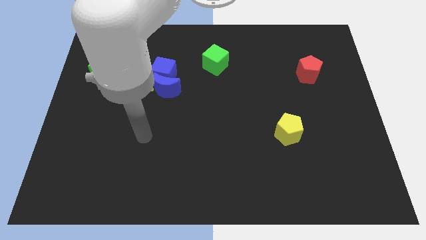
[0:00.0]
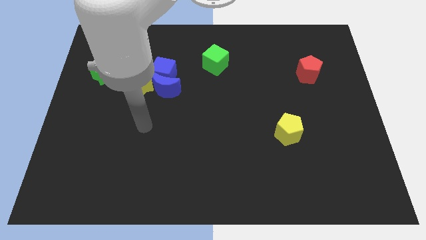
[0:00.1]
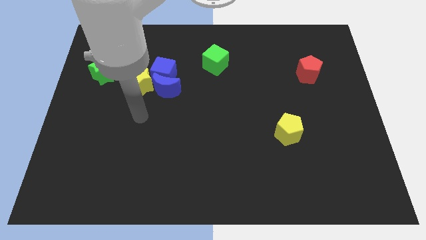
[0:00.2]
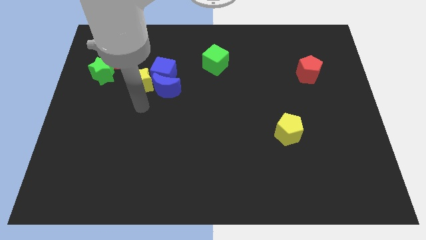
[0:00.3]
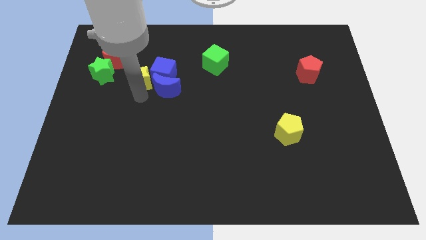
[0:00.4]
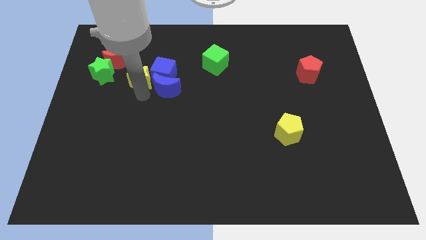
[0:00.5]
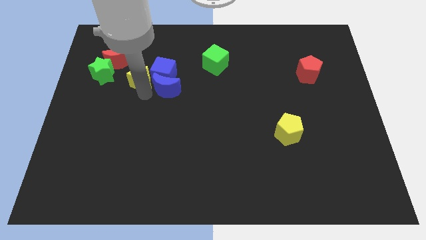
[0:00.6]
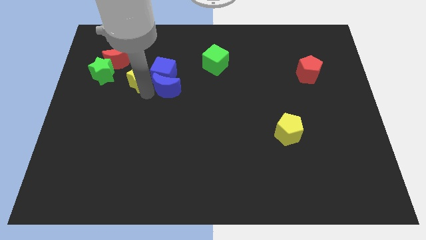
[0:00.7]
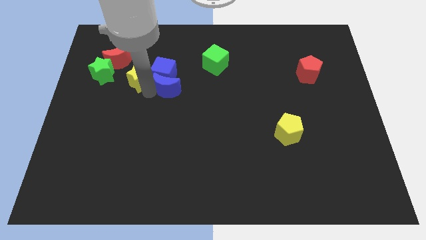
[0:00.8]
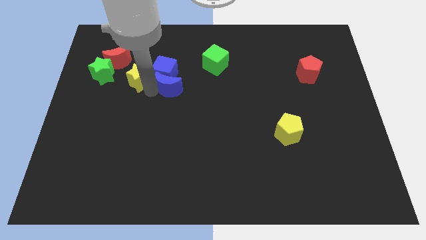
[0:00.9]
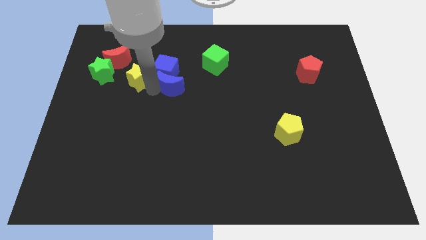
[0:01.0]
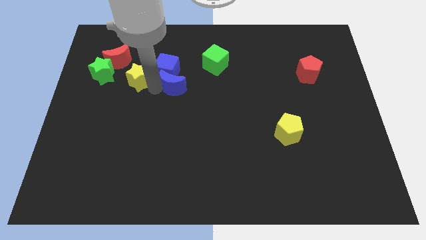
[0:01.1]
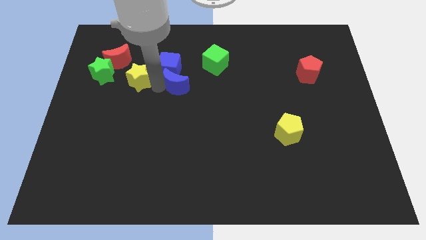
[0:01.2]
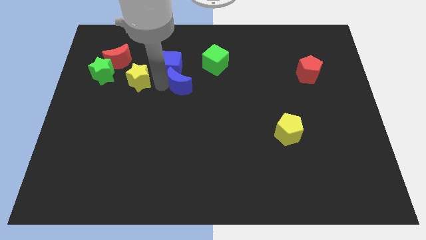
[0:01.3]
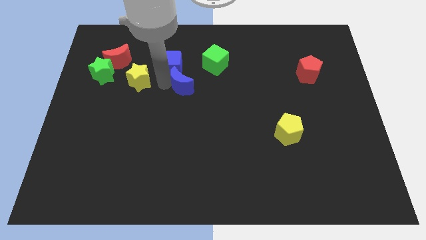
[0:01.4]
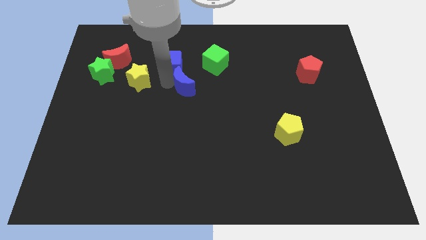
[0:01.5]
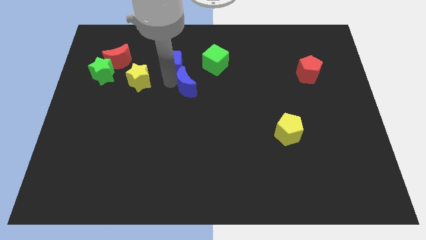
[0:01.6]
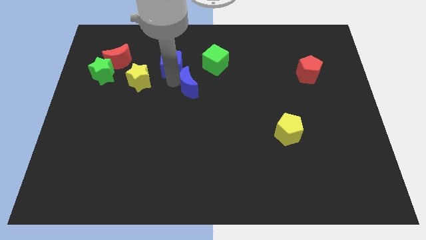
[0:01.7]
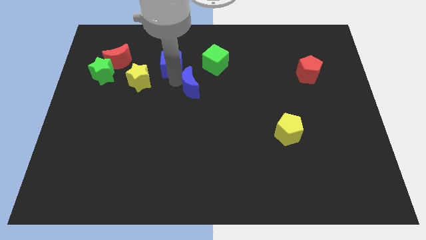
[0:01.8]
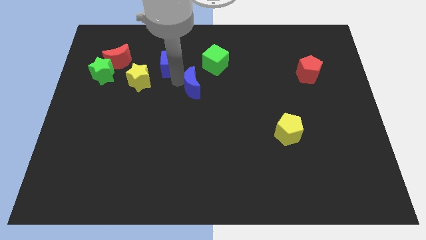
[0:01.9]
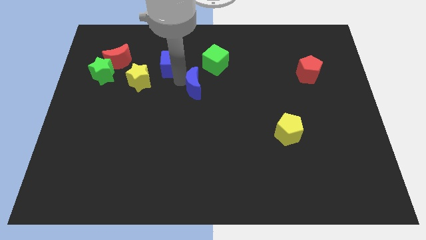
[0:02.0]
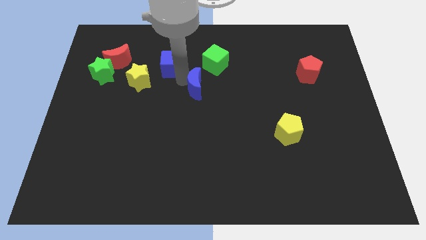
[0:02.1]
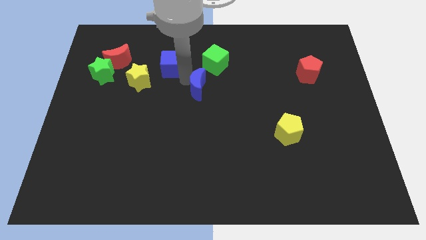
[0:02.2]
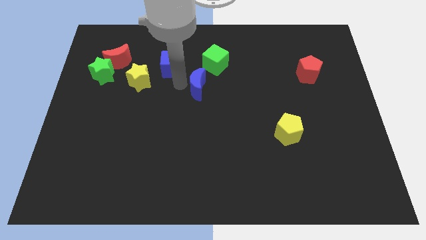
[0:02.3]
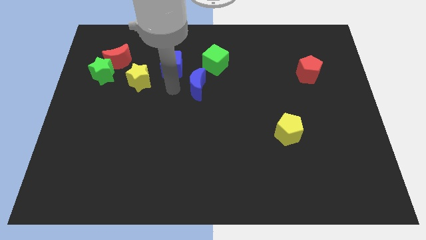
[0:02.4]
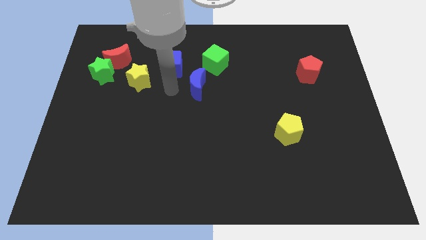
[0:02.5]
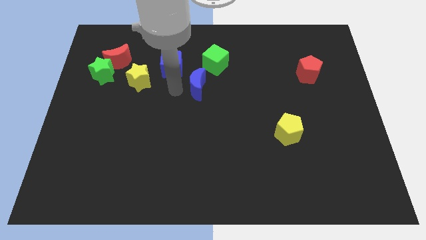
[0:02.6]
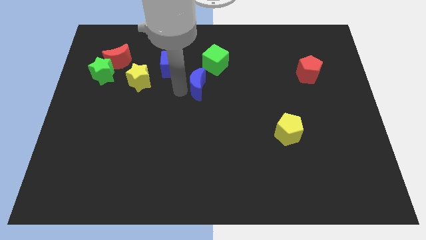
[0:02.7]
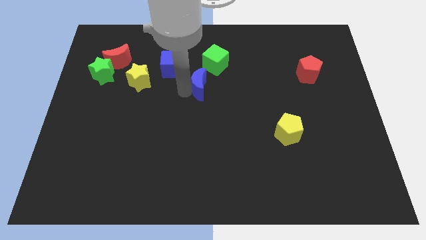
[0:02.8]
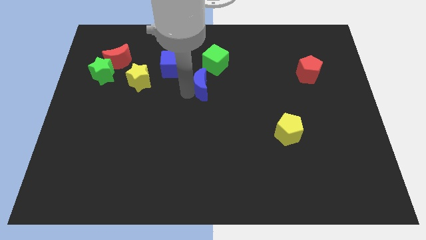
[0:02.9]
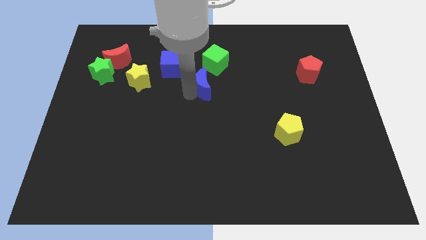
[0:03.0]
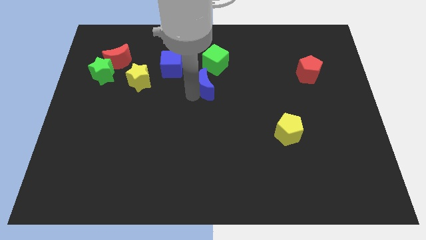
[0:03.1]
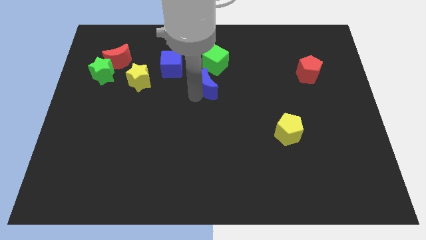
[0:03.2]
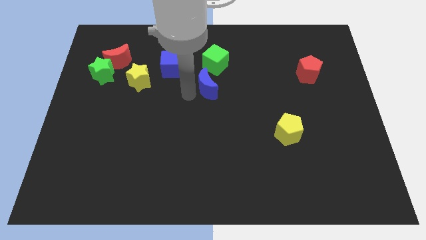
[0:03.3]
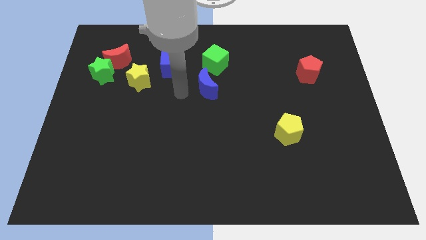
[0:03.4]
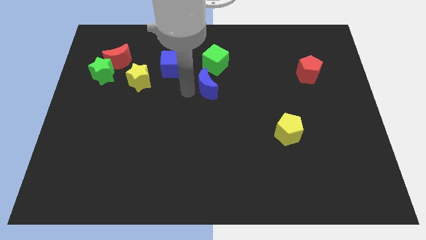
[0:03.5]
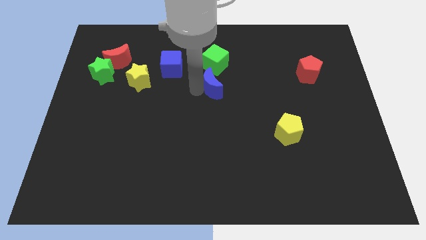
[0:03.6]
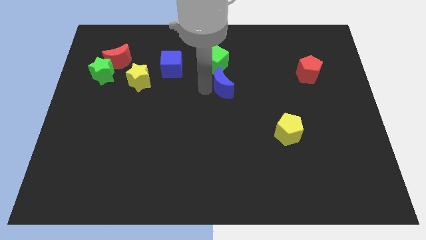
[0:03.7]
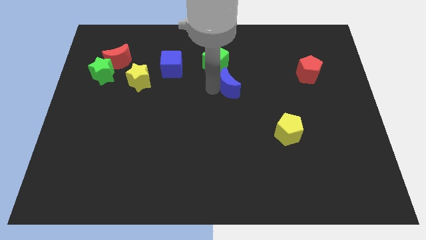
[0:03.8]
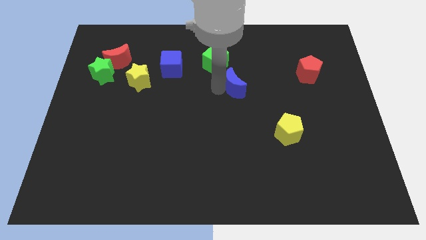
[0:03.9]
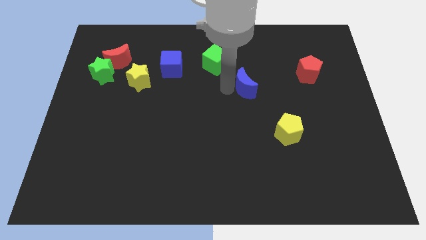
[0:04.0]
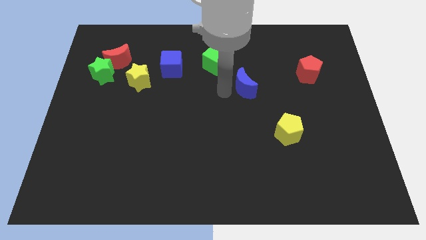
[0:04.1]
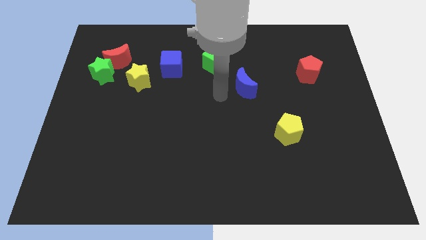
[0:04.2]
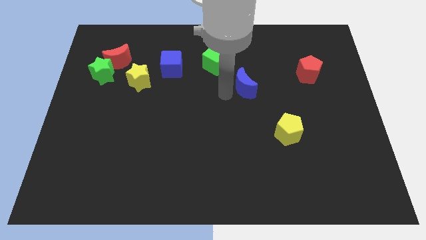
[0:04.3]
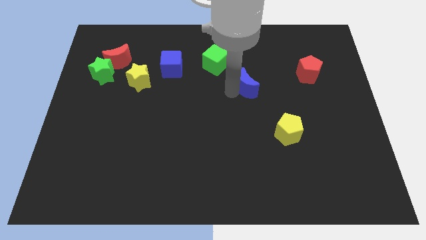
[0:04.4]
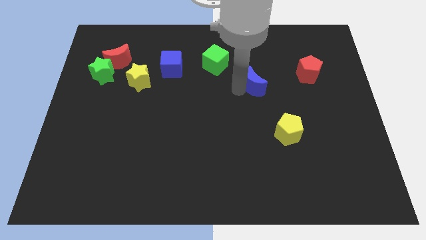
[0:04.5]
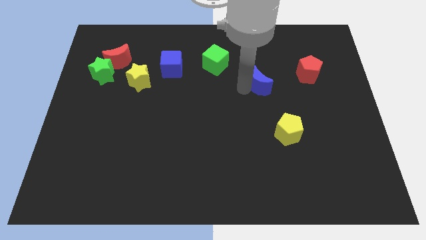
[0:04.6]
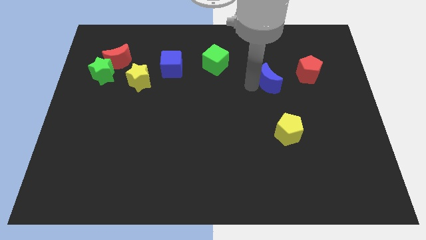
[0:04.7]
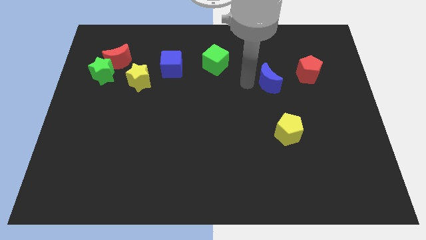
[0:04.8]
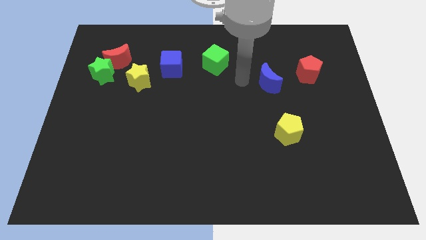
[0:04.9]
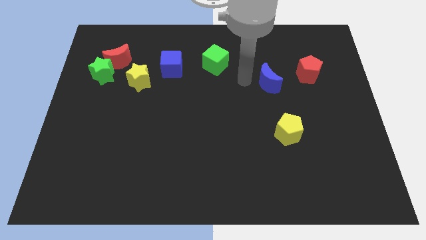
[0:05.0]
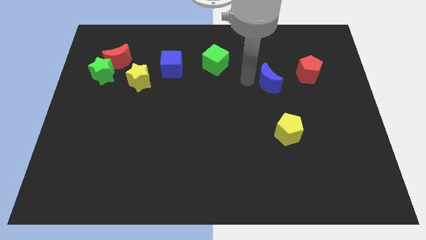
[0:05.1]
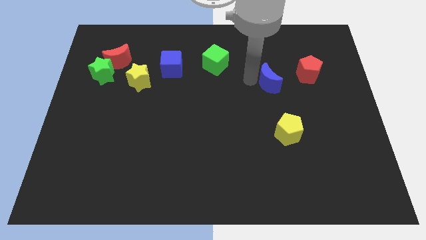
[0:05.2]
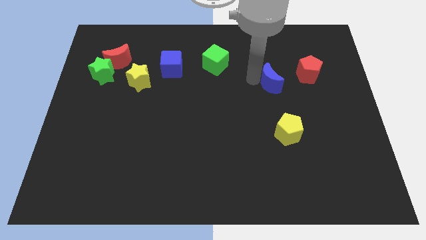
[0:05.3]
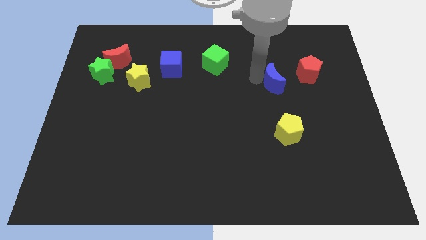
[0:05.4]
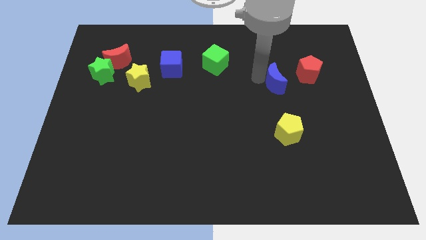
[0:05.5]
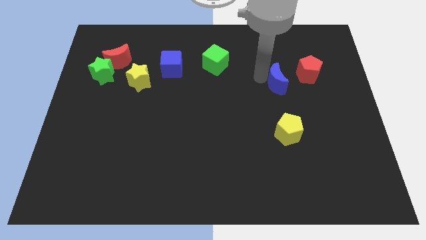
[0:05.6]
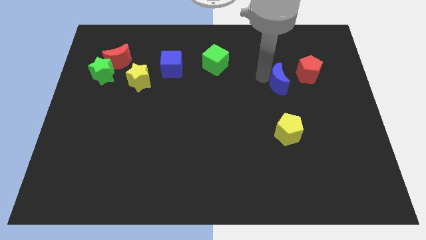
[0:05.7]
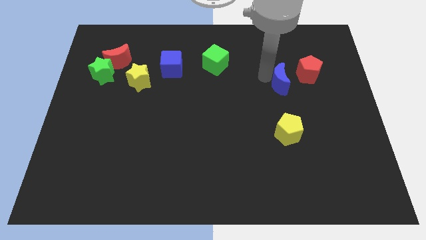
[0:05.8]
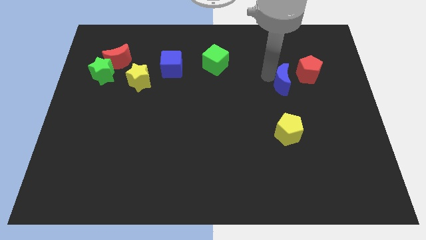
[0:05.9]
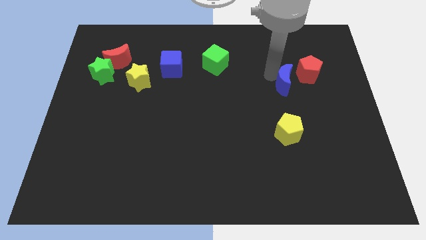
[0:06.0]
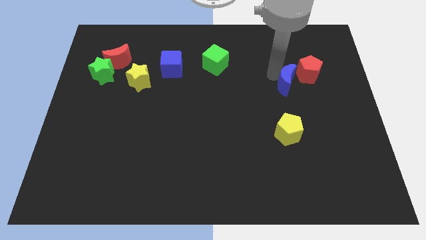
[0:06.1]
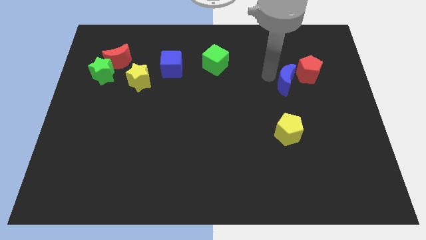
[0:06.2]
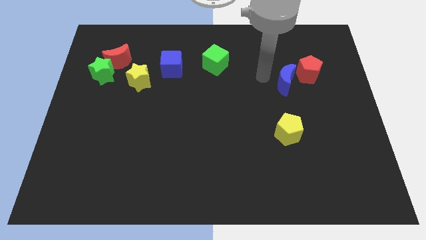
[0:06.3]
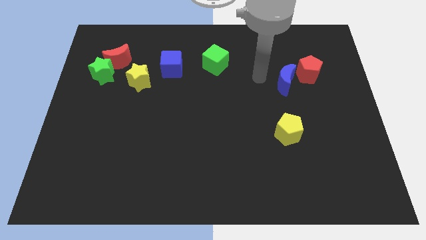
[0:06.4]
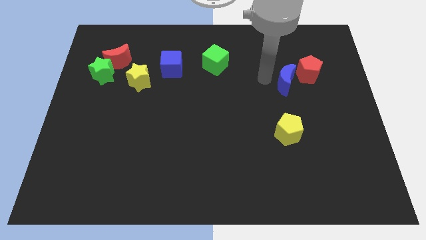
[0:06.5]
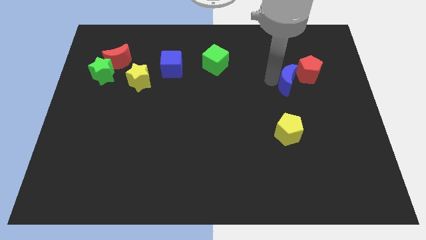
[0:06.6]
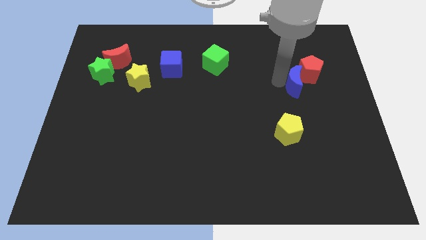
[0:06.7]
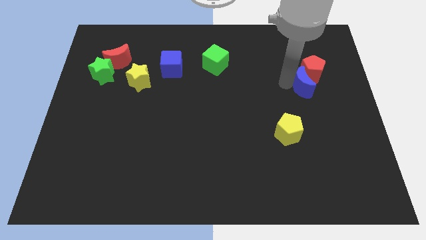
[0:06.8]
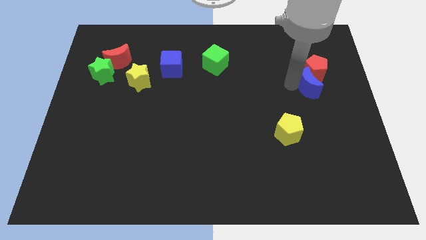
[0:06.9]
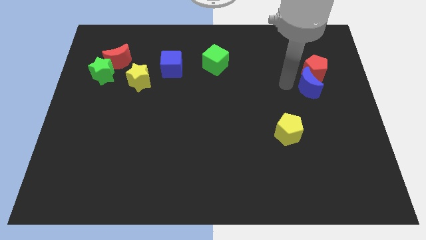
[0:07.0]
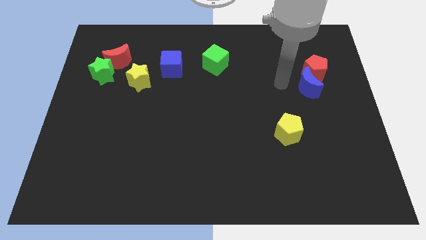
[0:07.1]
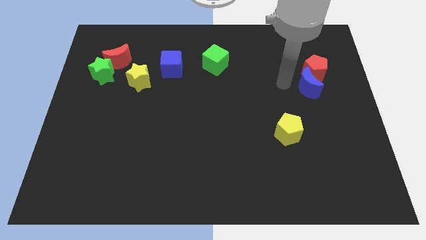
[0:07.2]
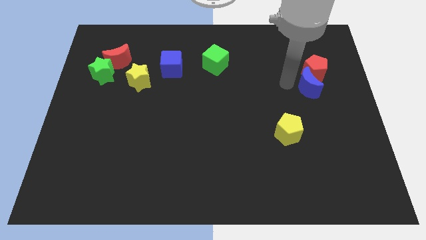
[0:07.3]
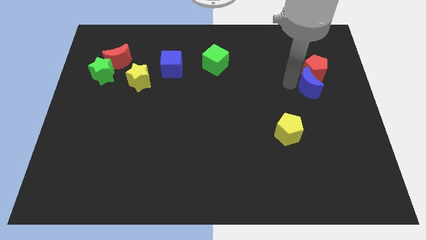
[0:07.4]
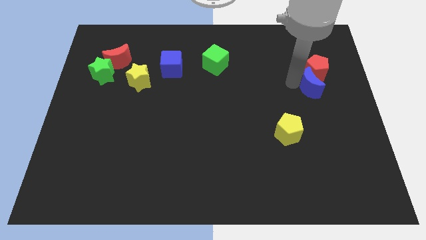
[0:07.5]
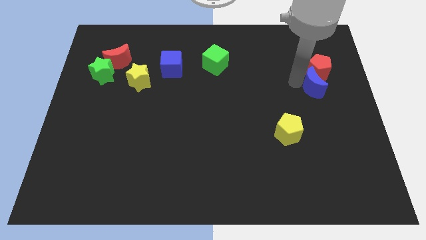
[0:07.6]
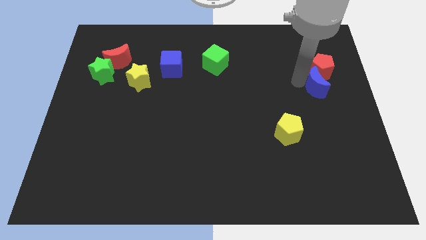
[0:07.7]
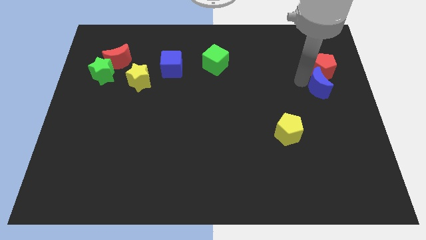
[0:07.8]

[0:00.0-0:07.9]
push the blue moon to the right side
